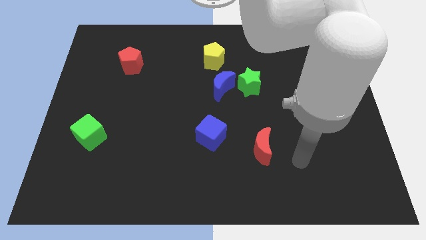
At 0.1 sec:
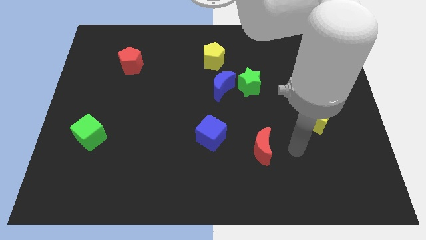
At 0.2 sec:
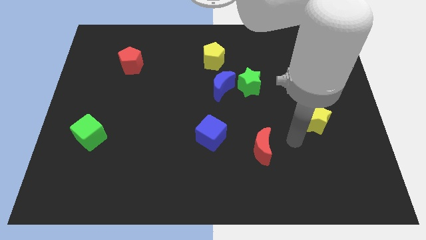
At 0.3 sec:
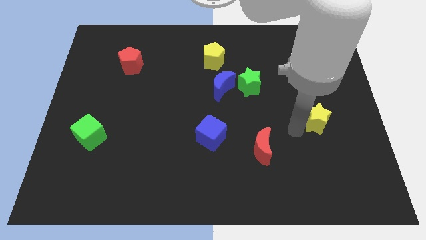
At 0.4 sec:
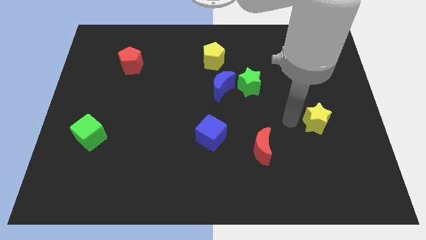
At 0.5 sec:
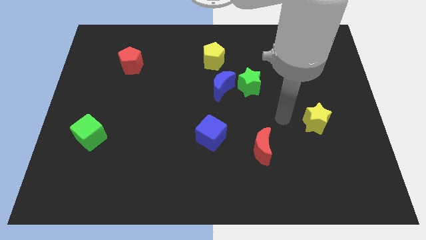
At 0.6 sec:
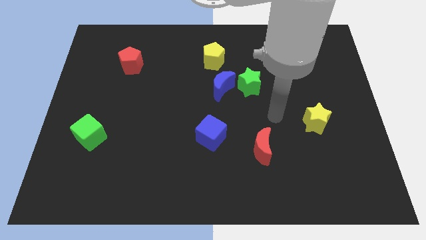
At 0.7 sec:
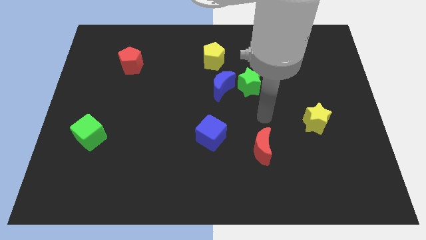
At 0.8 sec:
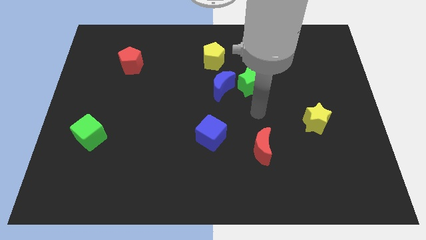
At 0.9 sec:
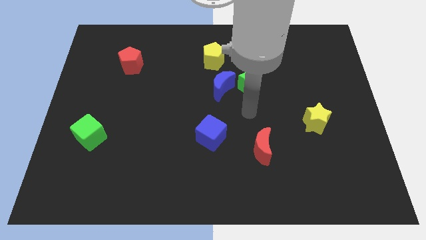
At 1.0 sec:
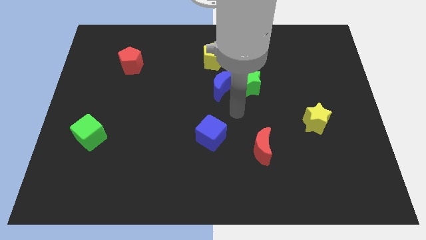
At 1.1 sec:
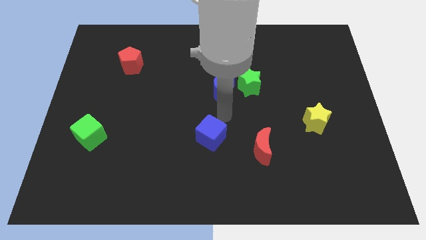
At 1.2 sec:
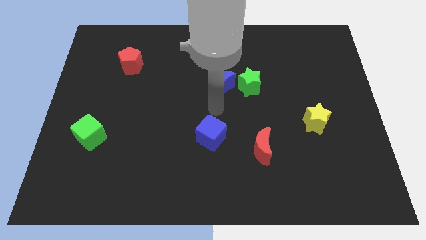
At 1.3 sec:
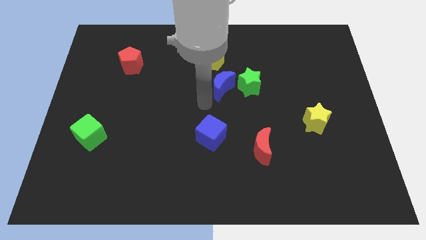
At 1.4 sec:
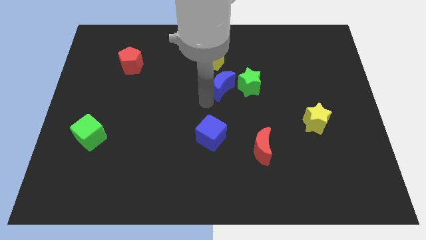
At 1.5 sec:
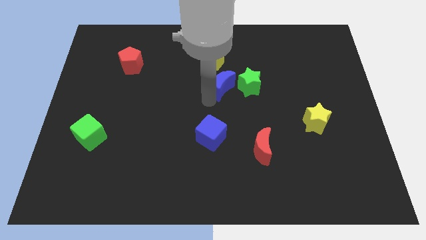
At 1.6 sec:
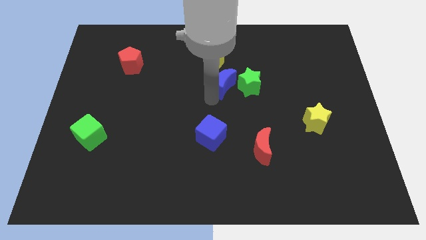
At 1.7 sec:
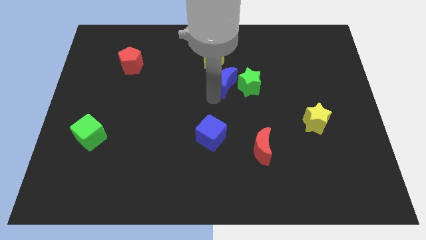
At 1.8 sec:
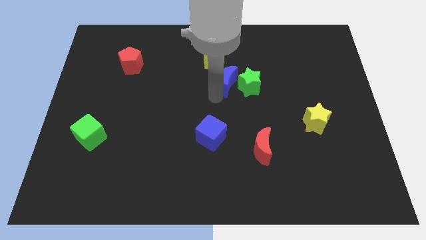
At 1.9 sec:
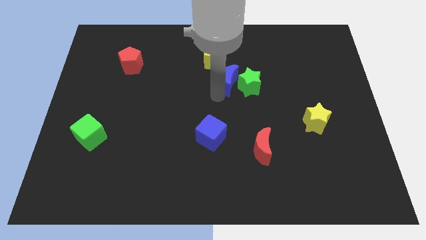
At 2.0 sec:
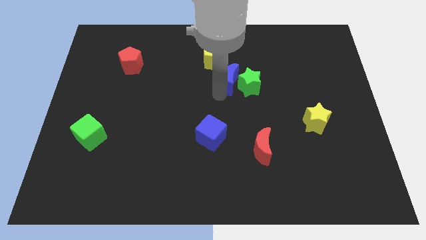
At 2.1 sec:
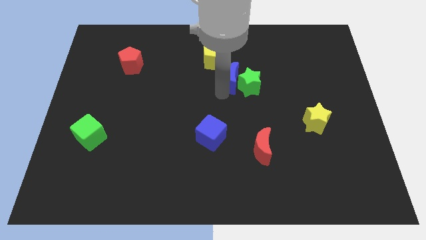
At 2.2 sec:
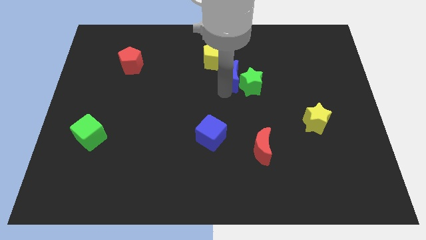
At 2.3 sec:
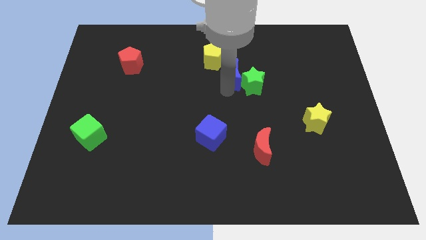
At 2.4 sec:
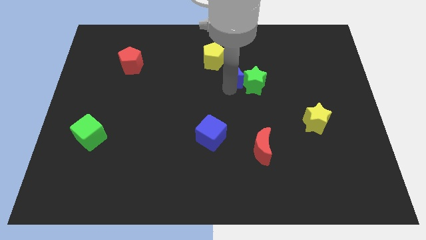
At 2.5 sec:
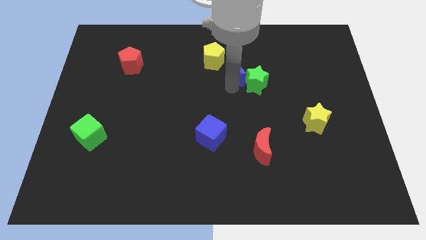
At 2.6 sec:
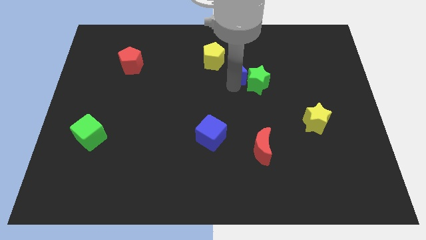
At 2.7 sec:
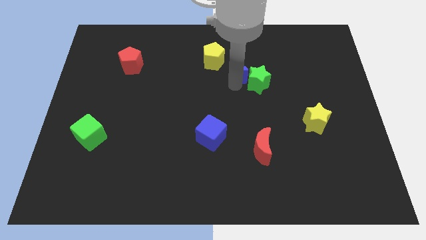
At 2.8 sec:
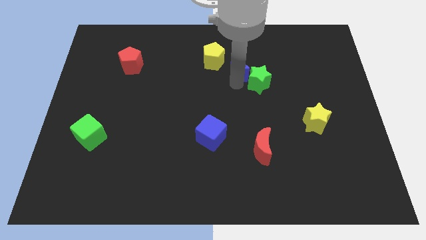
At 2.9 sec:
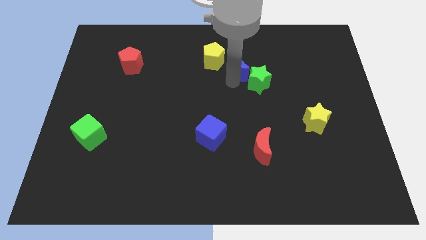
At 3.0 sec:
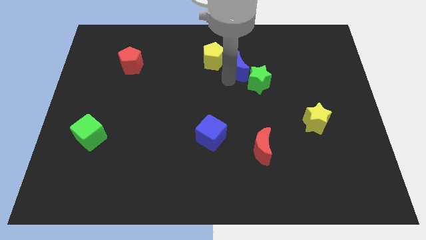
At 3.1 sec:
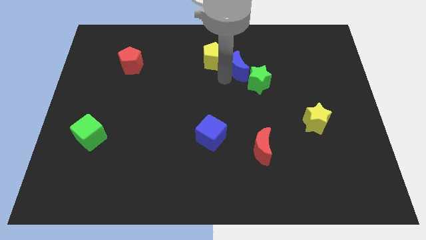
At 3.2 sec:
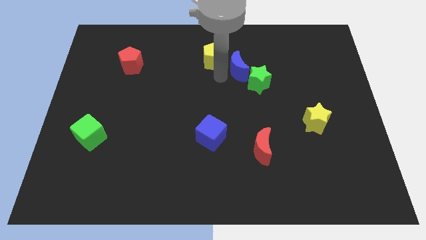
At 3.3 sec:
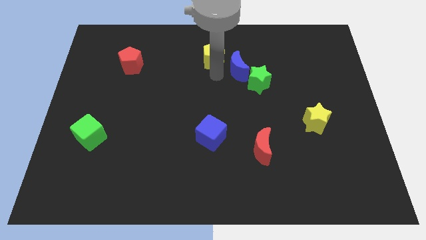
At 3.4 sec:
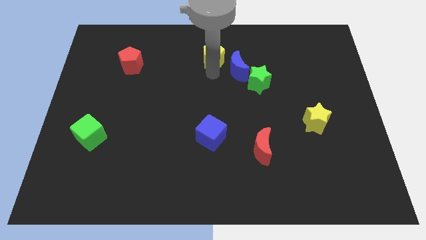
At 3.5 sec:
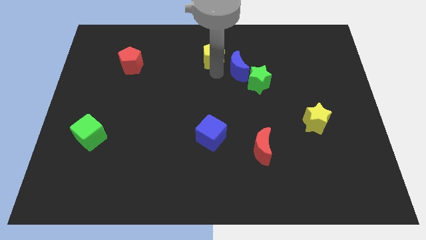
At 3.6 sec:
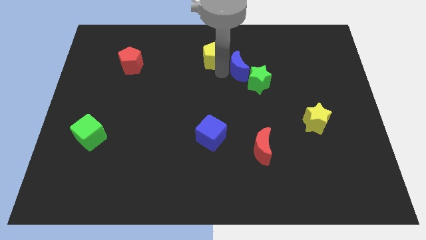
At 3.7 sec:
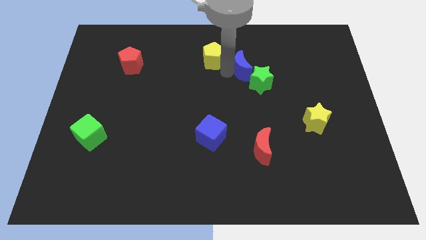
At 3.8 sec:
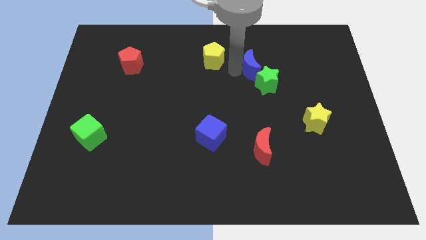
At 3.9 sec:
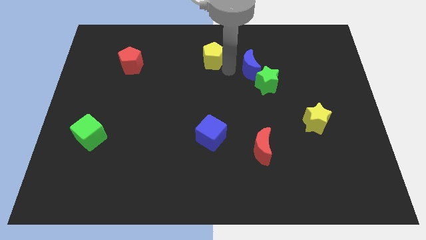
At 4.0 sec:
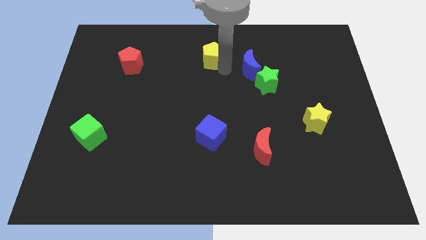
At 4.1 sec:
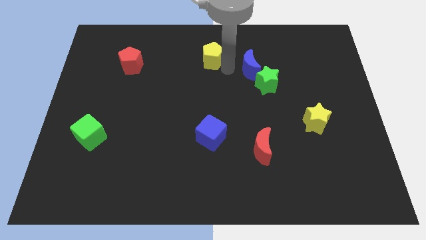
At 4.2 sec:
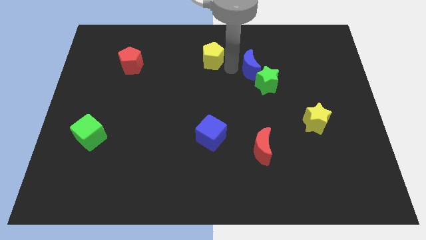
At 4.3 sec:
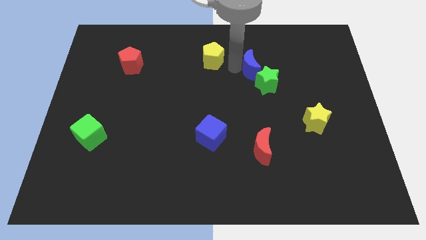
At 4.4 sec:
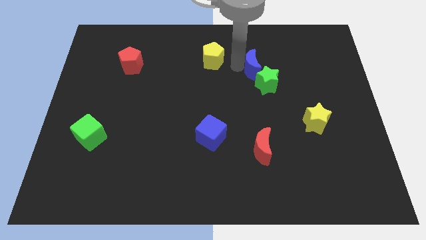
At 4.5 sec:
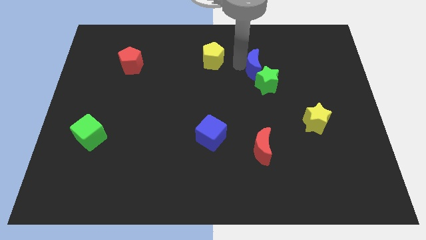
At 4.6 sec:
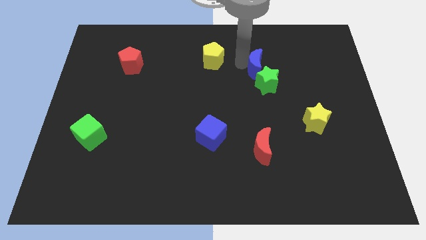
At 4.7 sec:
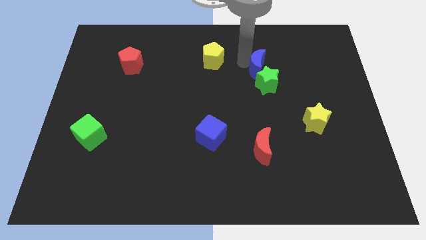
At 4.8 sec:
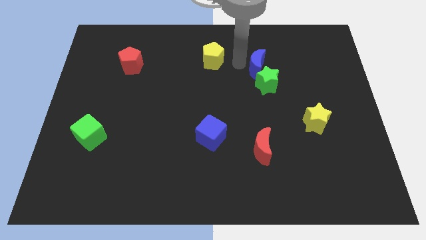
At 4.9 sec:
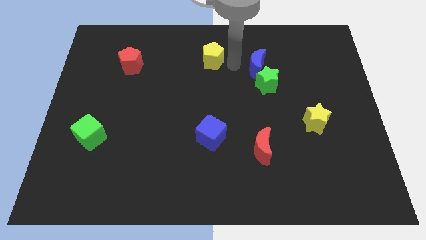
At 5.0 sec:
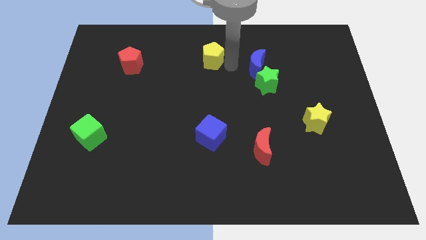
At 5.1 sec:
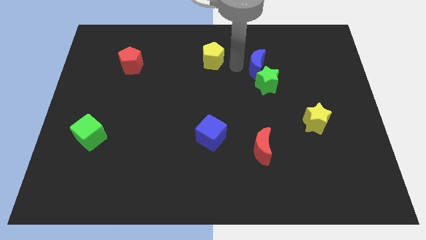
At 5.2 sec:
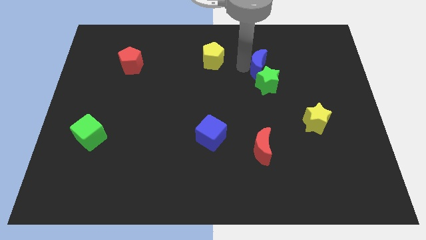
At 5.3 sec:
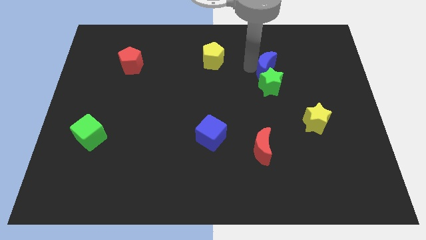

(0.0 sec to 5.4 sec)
slide the blue moon to the top right side of the green star

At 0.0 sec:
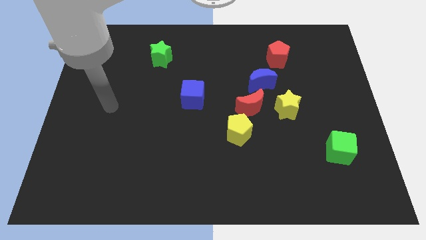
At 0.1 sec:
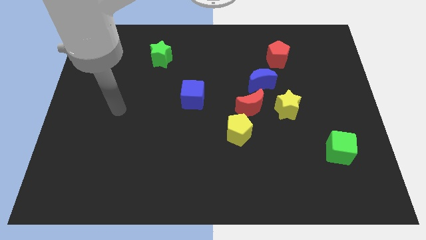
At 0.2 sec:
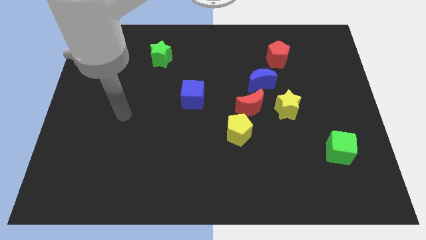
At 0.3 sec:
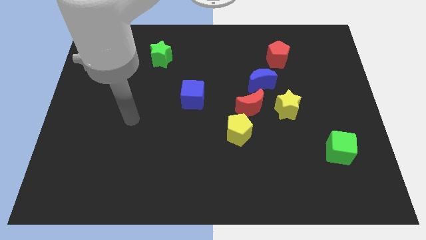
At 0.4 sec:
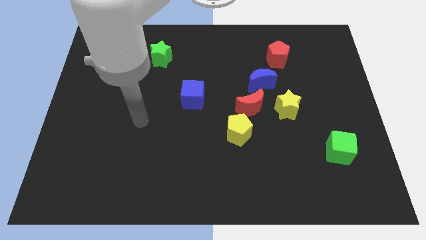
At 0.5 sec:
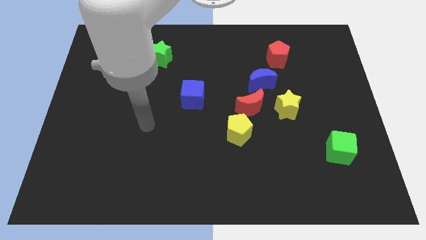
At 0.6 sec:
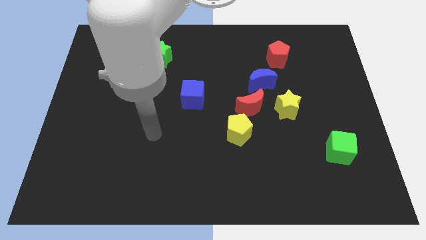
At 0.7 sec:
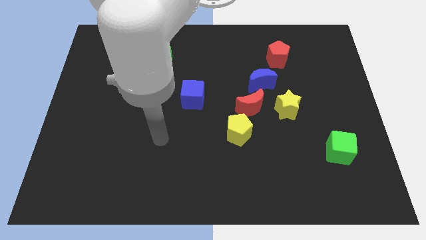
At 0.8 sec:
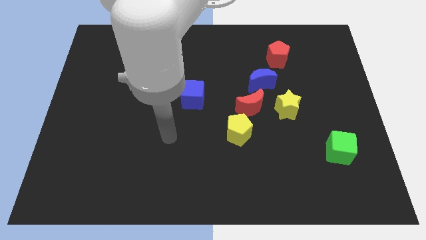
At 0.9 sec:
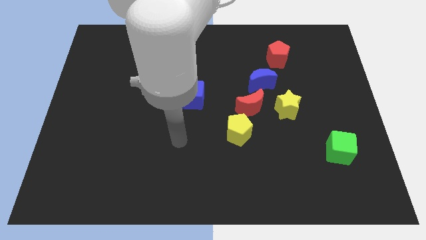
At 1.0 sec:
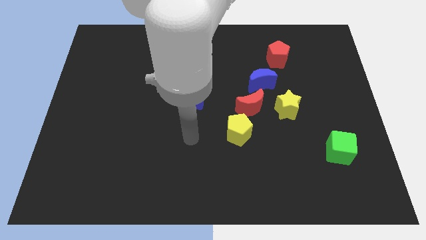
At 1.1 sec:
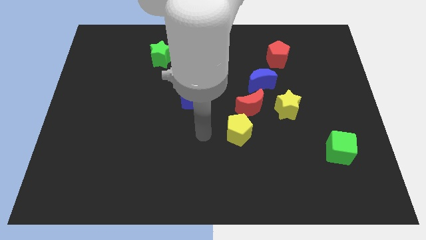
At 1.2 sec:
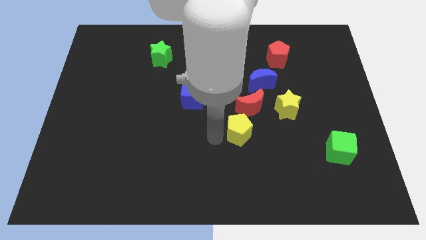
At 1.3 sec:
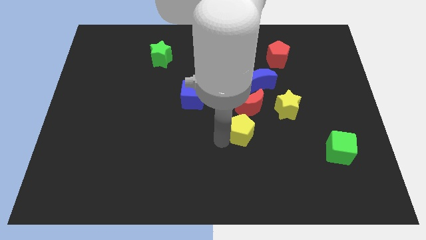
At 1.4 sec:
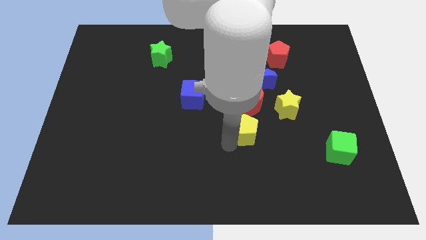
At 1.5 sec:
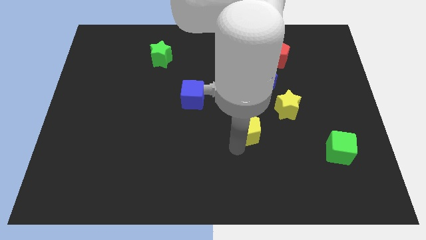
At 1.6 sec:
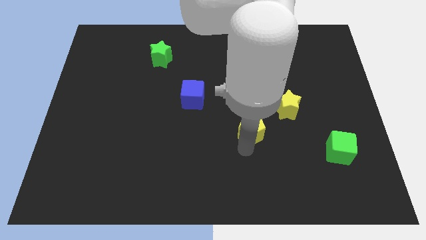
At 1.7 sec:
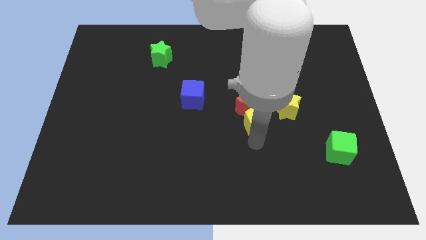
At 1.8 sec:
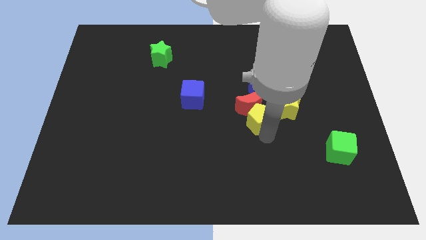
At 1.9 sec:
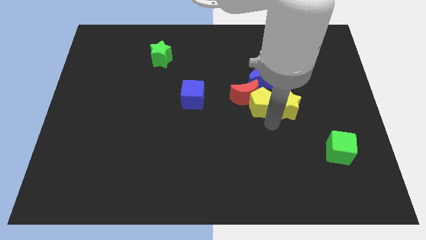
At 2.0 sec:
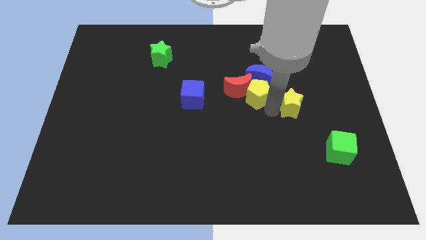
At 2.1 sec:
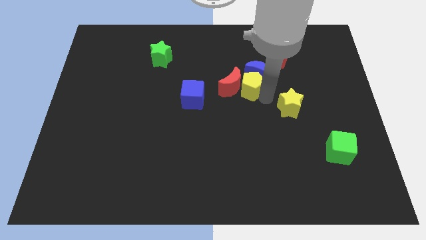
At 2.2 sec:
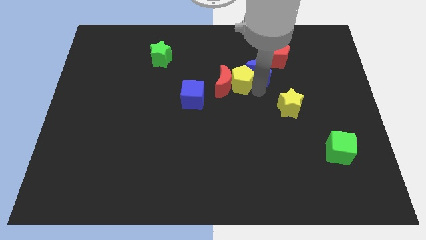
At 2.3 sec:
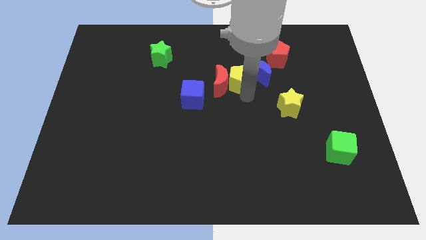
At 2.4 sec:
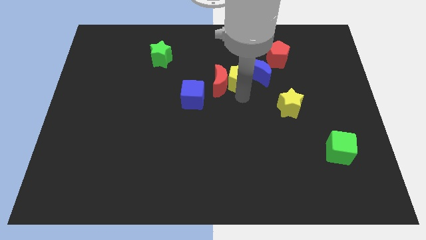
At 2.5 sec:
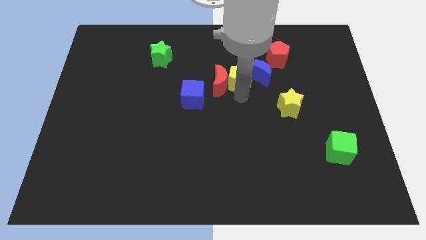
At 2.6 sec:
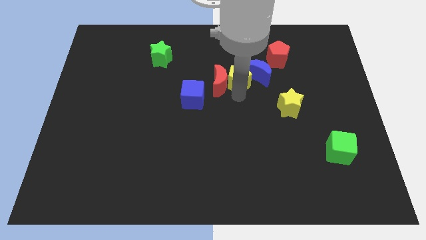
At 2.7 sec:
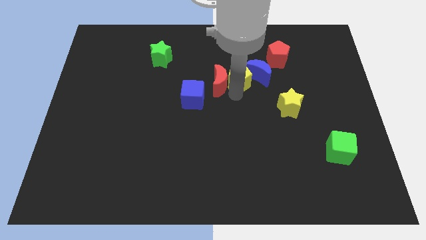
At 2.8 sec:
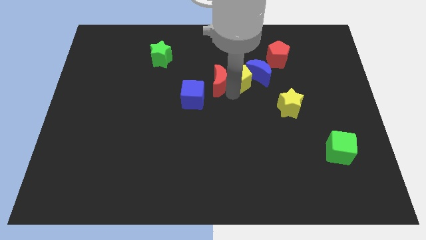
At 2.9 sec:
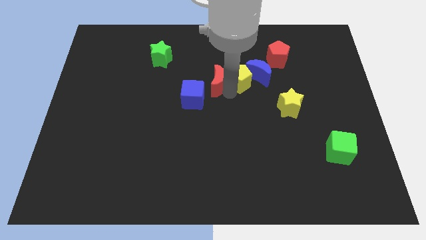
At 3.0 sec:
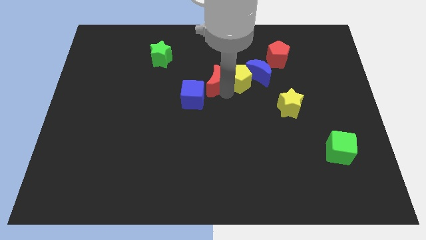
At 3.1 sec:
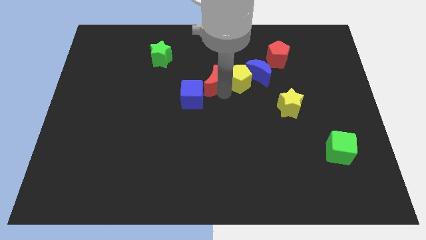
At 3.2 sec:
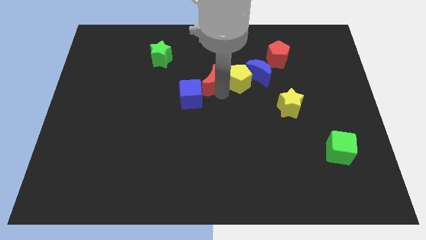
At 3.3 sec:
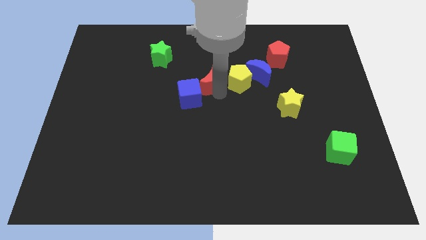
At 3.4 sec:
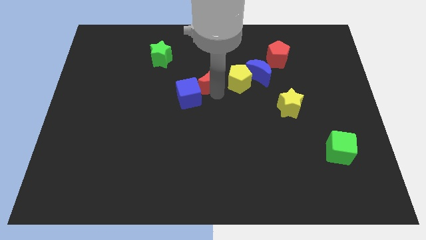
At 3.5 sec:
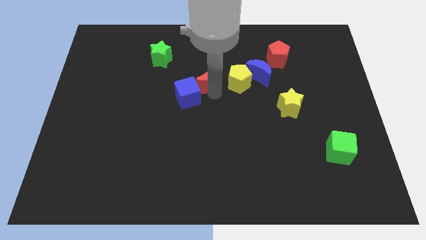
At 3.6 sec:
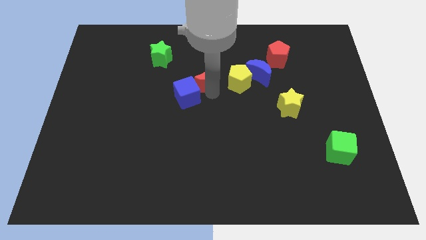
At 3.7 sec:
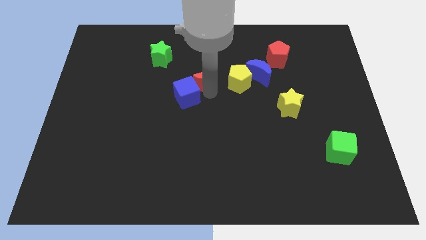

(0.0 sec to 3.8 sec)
push the red moon to the top side of the blue cube
